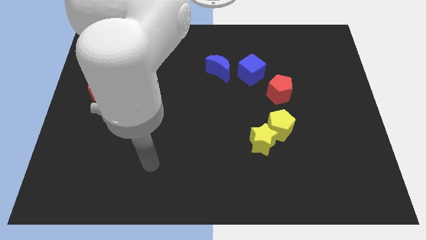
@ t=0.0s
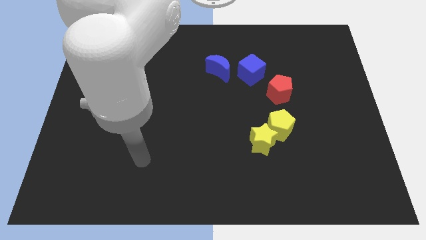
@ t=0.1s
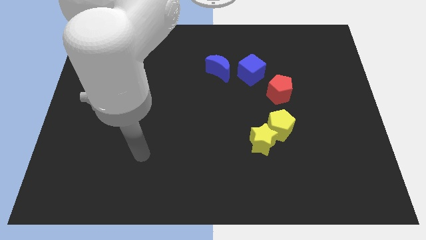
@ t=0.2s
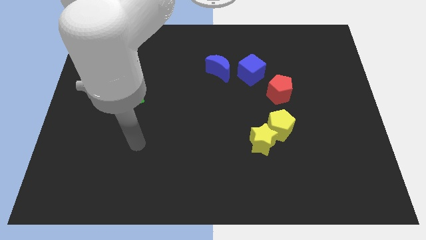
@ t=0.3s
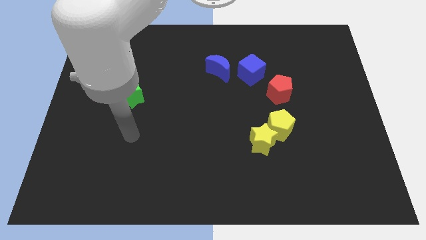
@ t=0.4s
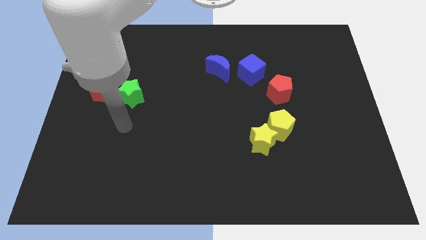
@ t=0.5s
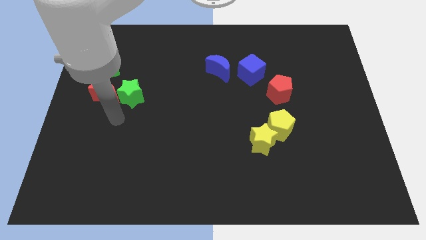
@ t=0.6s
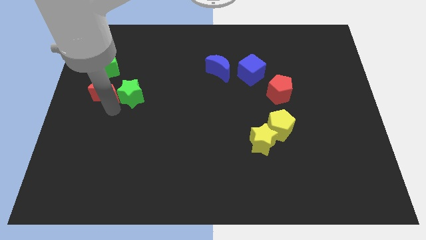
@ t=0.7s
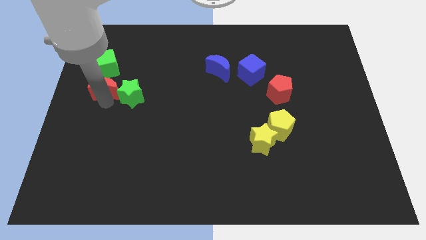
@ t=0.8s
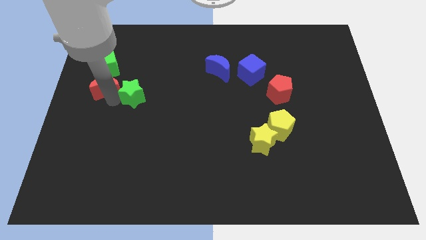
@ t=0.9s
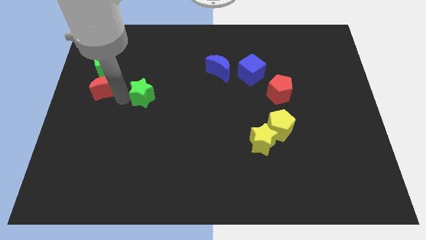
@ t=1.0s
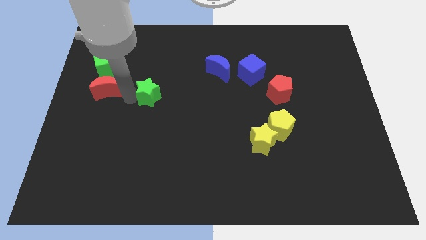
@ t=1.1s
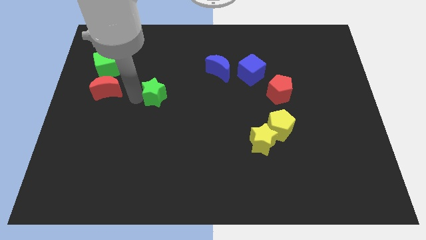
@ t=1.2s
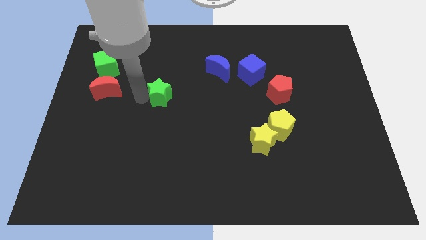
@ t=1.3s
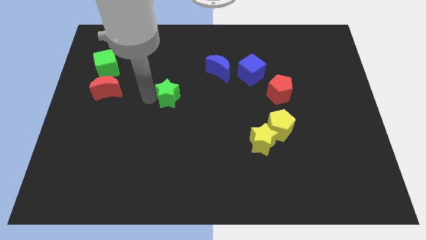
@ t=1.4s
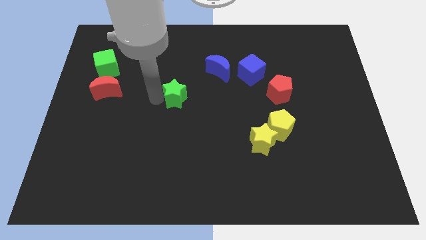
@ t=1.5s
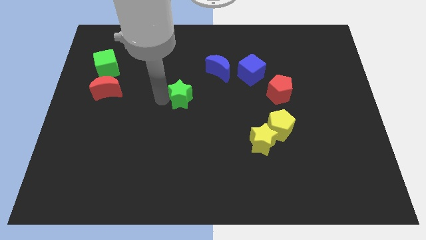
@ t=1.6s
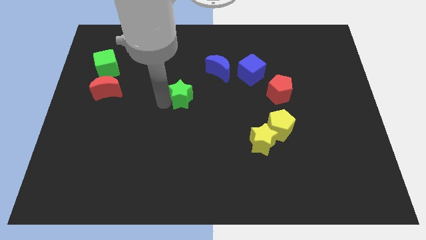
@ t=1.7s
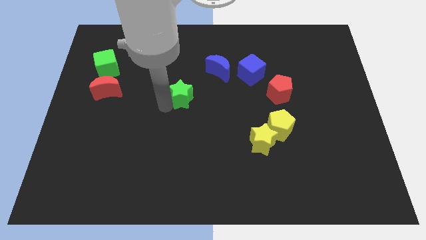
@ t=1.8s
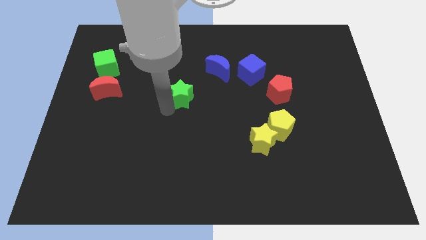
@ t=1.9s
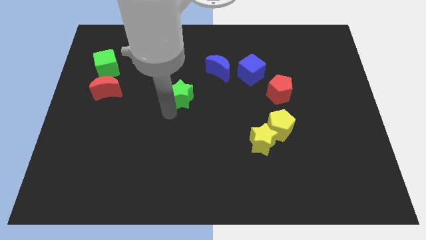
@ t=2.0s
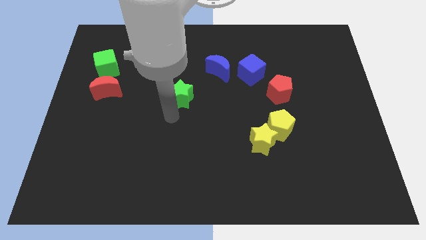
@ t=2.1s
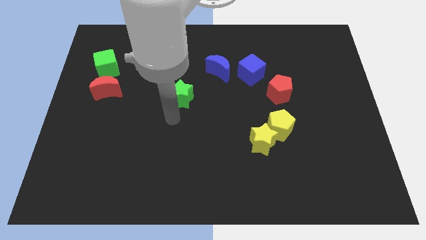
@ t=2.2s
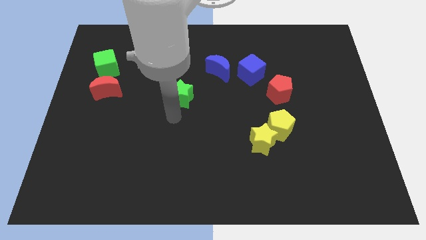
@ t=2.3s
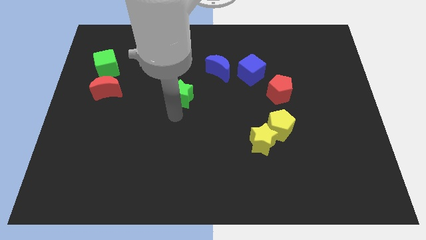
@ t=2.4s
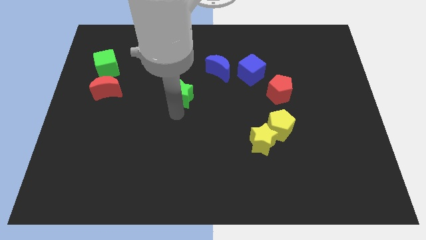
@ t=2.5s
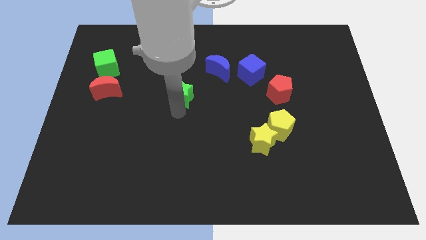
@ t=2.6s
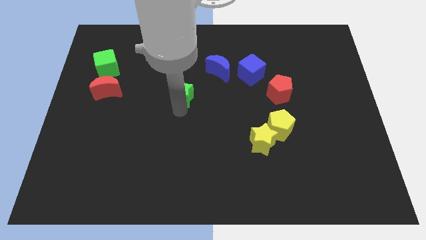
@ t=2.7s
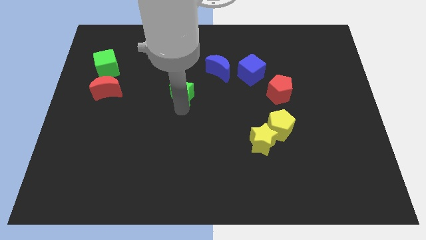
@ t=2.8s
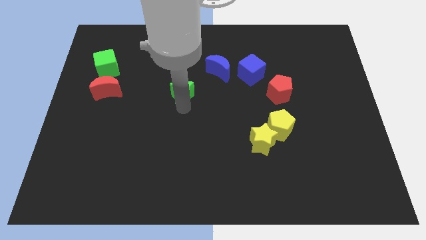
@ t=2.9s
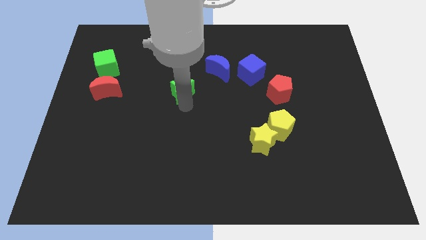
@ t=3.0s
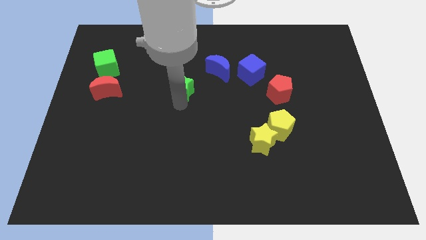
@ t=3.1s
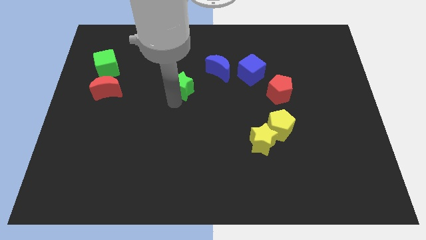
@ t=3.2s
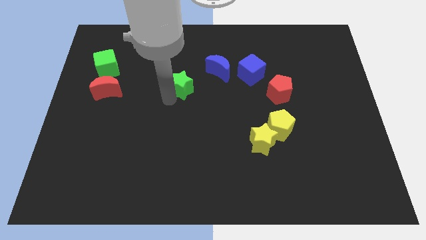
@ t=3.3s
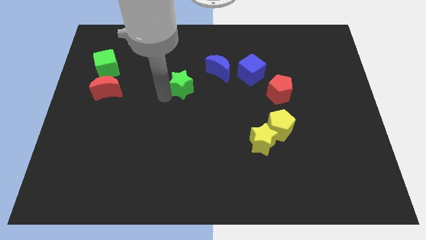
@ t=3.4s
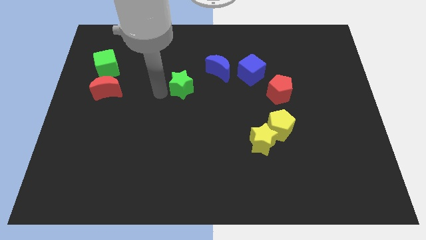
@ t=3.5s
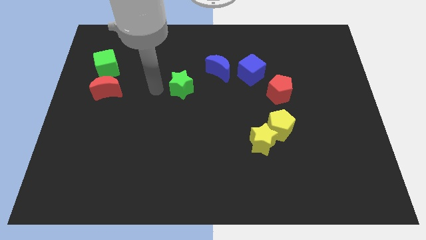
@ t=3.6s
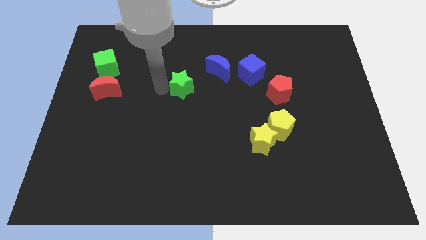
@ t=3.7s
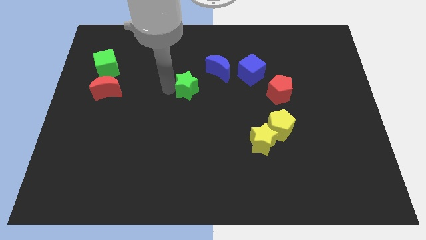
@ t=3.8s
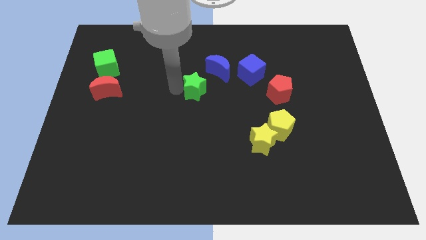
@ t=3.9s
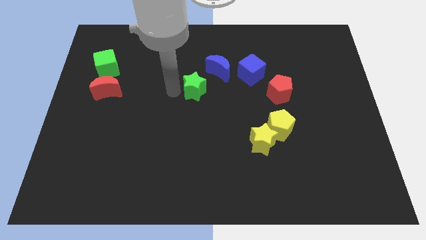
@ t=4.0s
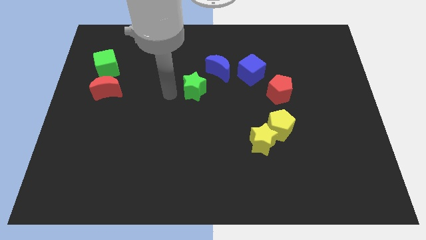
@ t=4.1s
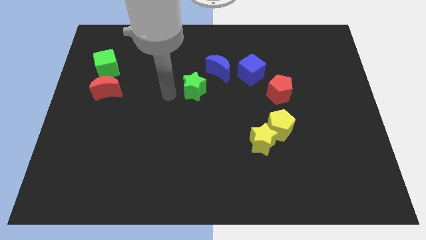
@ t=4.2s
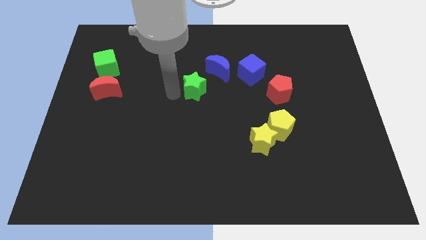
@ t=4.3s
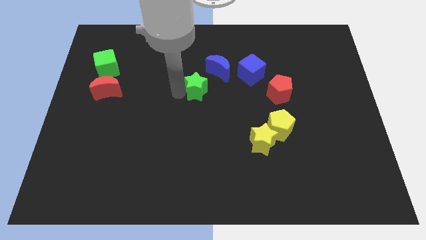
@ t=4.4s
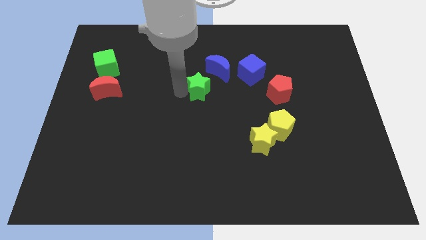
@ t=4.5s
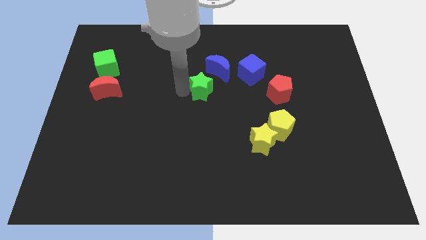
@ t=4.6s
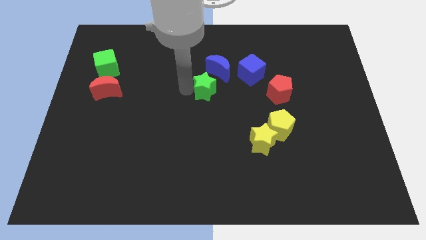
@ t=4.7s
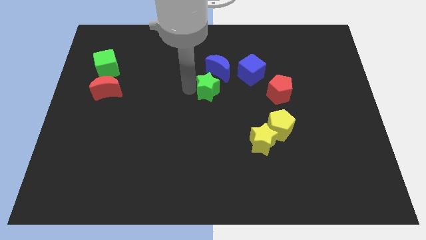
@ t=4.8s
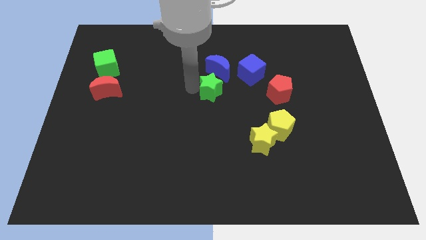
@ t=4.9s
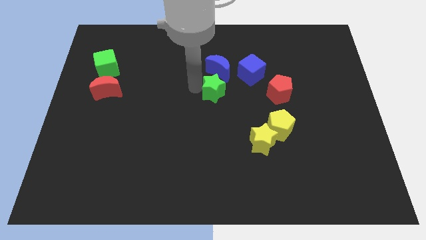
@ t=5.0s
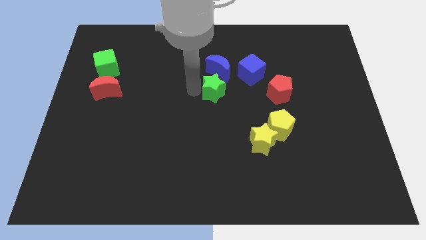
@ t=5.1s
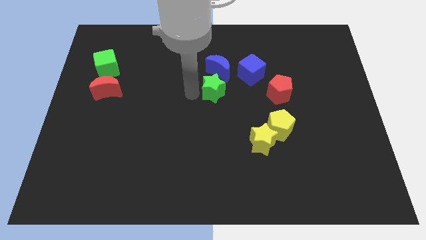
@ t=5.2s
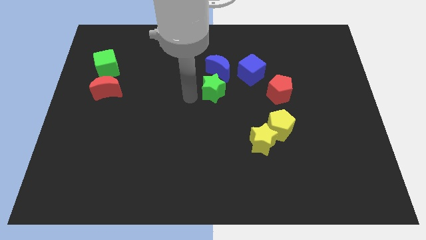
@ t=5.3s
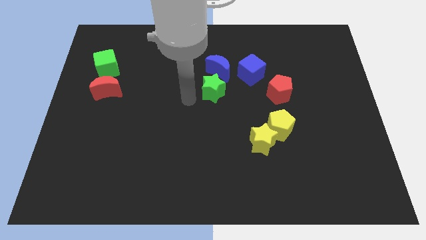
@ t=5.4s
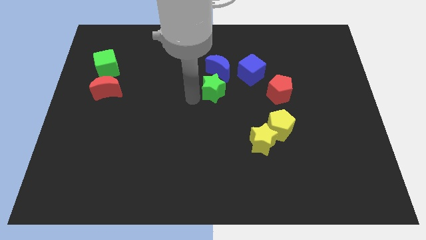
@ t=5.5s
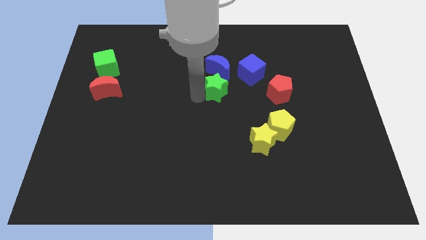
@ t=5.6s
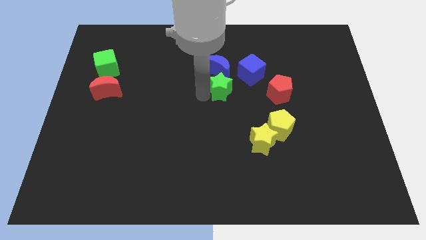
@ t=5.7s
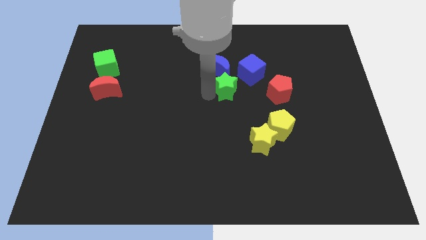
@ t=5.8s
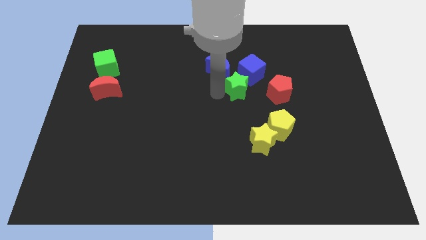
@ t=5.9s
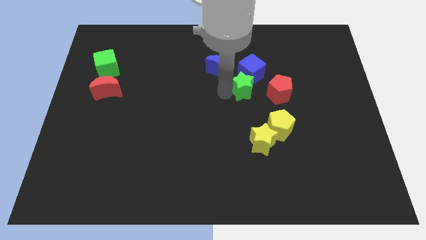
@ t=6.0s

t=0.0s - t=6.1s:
push the green star close to the blue cube

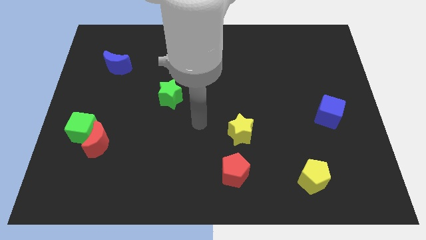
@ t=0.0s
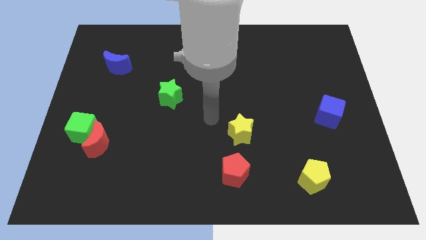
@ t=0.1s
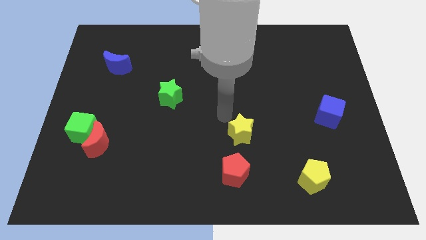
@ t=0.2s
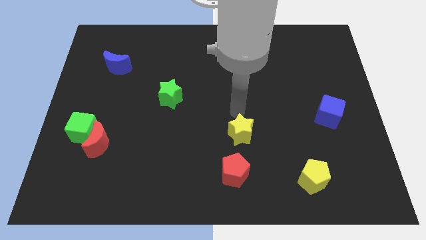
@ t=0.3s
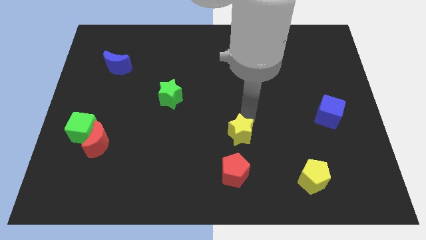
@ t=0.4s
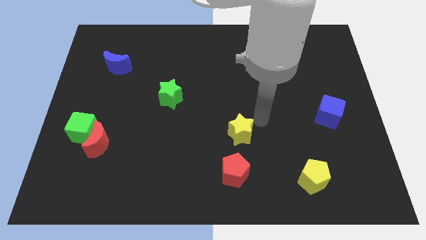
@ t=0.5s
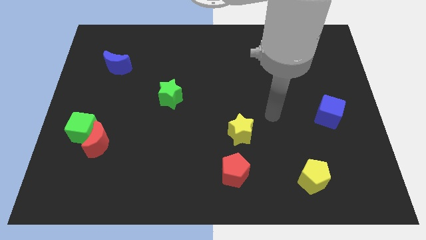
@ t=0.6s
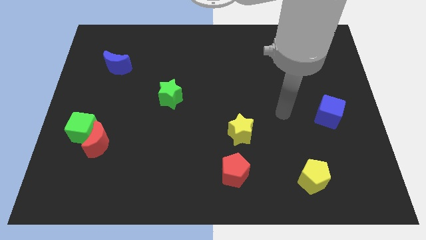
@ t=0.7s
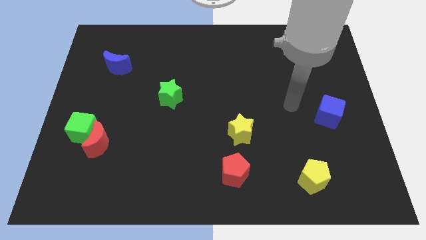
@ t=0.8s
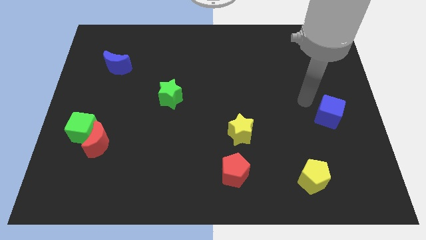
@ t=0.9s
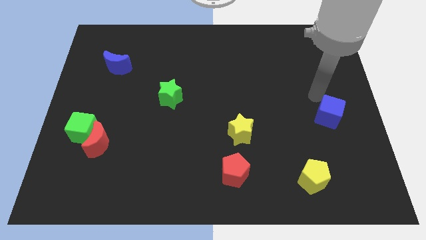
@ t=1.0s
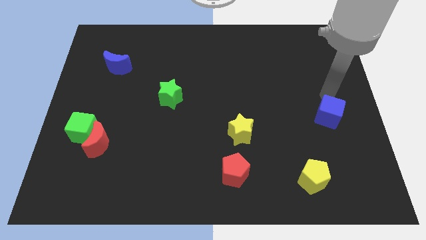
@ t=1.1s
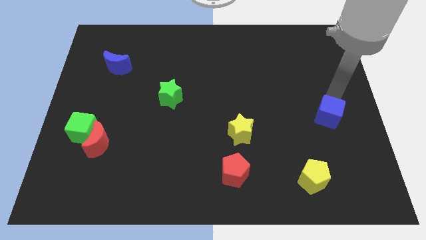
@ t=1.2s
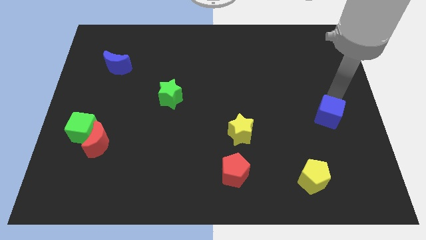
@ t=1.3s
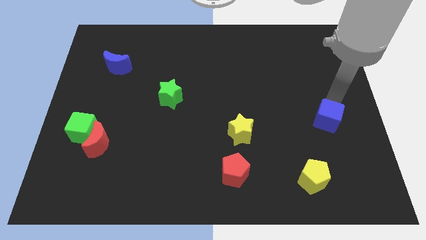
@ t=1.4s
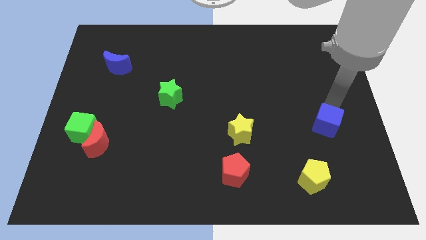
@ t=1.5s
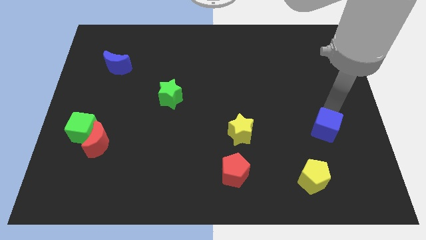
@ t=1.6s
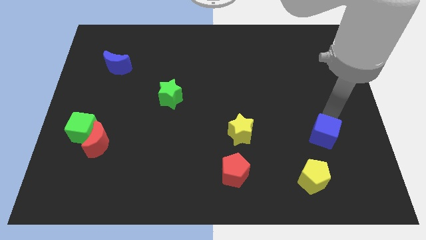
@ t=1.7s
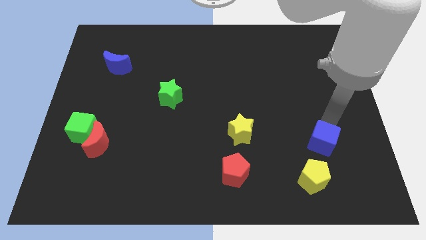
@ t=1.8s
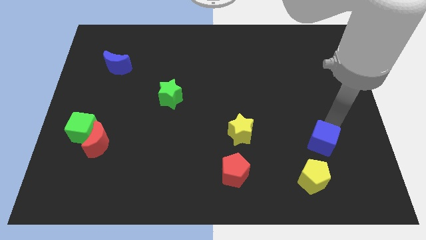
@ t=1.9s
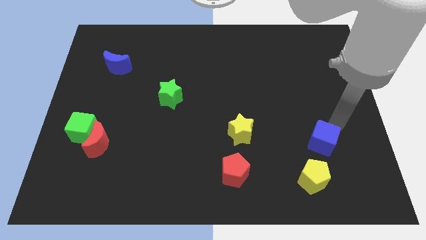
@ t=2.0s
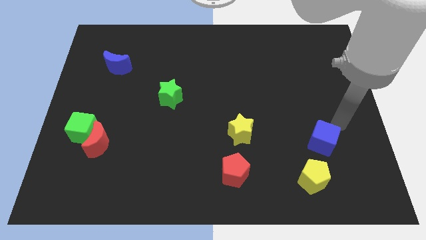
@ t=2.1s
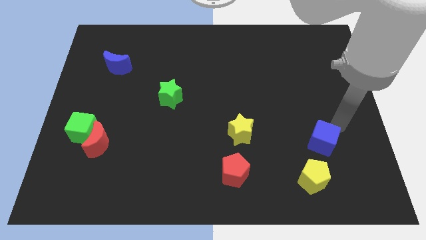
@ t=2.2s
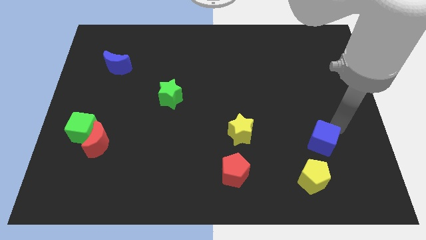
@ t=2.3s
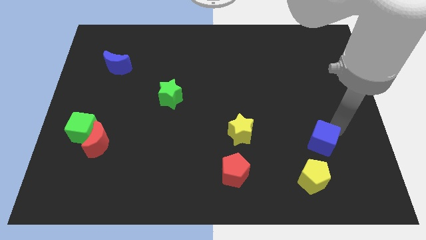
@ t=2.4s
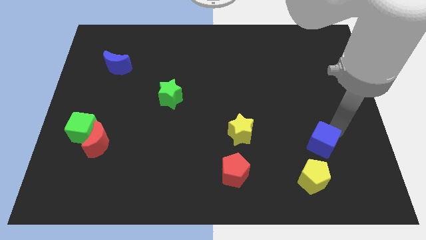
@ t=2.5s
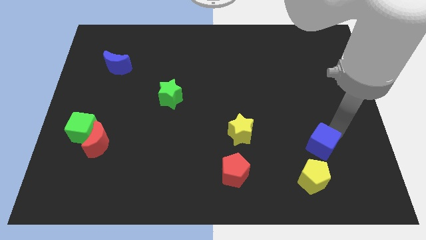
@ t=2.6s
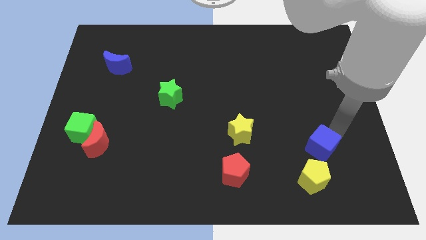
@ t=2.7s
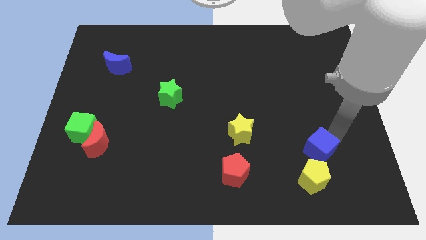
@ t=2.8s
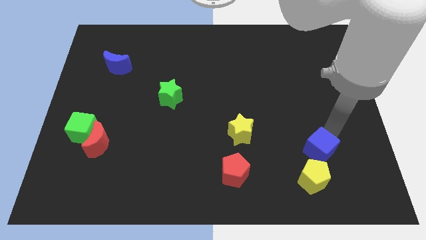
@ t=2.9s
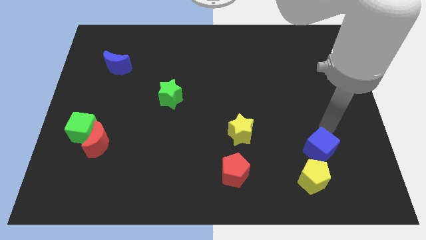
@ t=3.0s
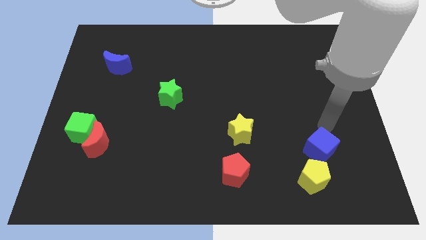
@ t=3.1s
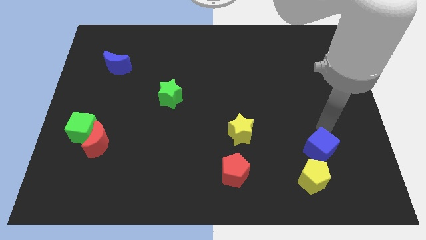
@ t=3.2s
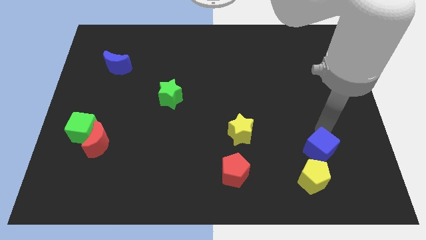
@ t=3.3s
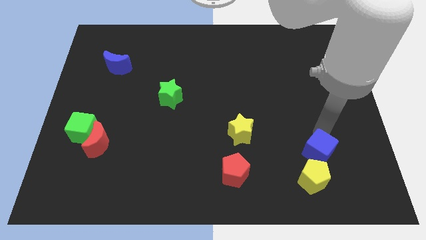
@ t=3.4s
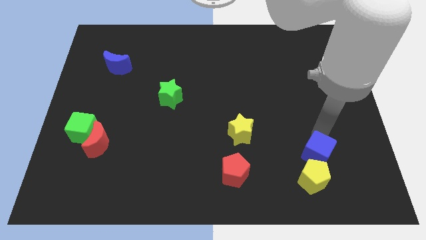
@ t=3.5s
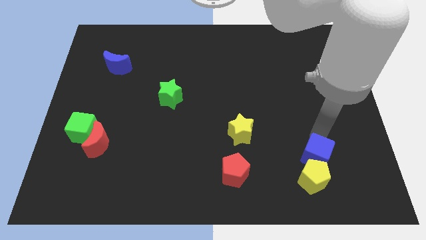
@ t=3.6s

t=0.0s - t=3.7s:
put the blue cube towards the yellow pentagon
